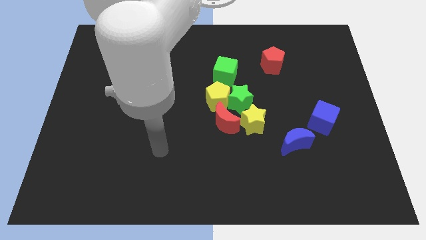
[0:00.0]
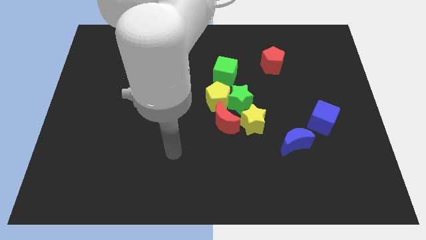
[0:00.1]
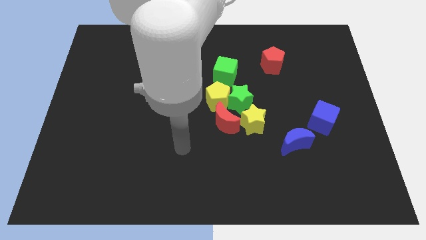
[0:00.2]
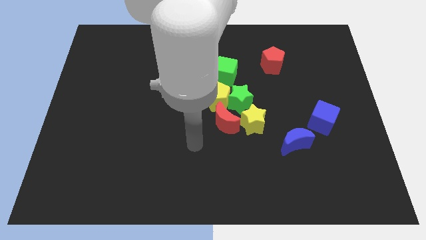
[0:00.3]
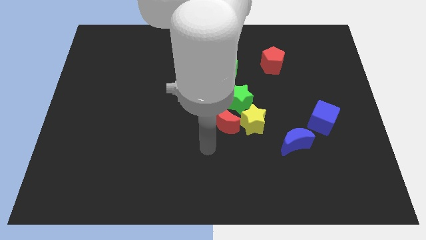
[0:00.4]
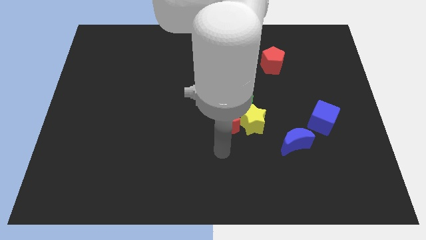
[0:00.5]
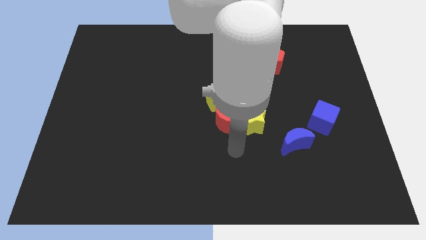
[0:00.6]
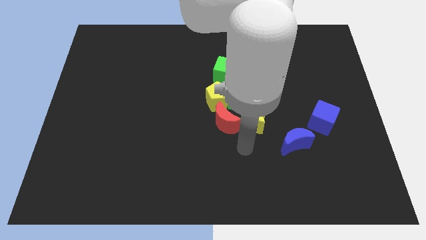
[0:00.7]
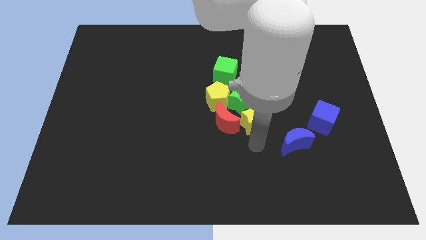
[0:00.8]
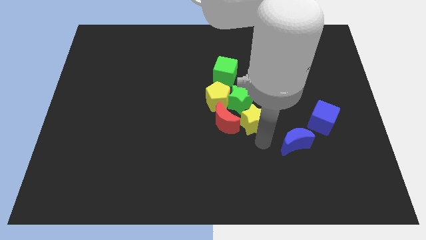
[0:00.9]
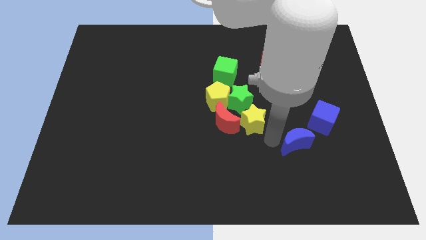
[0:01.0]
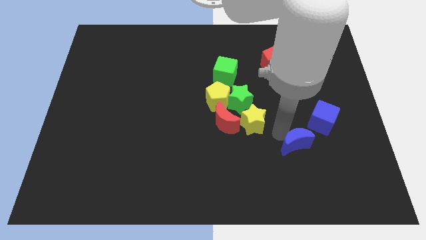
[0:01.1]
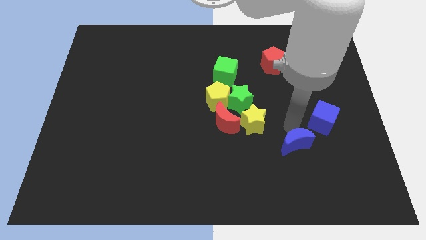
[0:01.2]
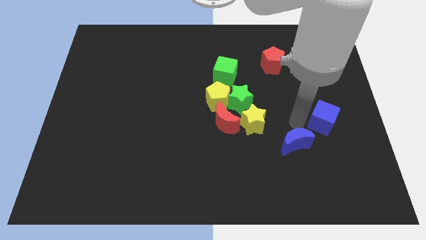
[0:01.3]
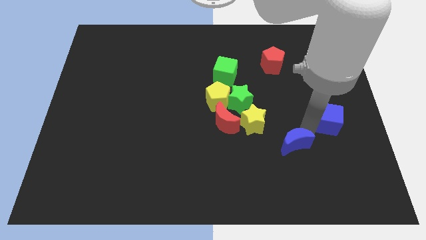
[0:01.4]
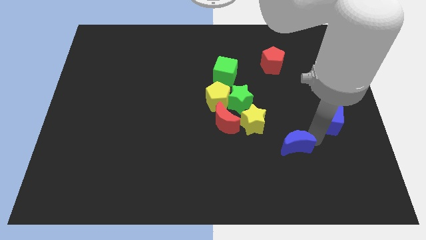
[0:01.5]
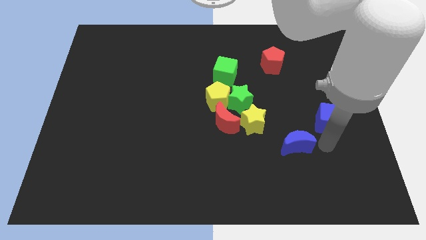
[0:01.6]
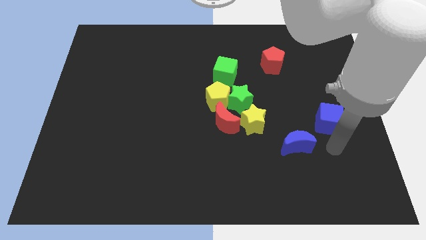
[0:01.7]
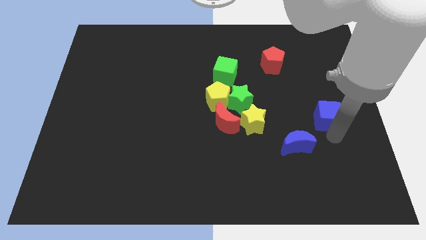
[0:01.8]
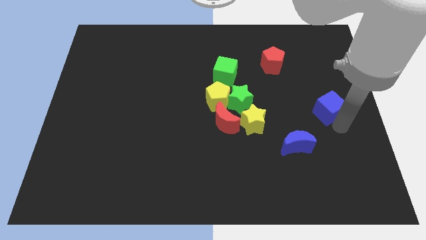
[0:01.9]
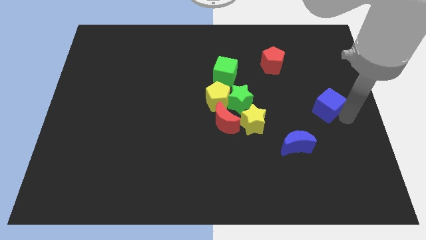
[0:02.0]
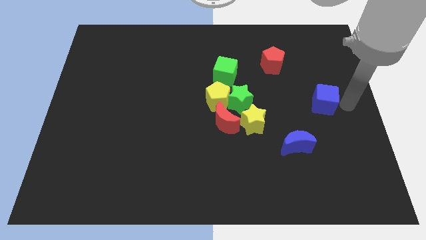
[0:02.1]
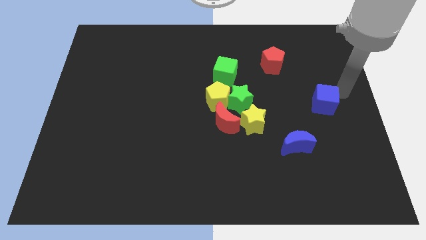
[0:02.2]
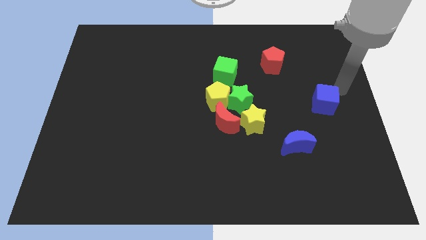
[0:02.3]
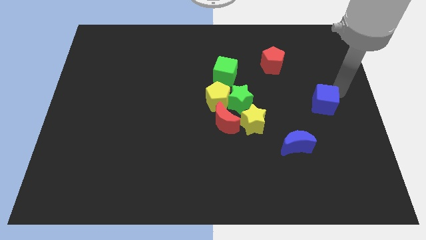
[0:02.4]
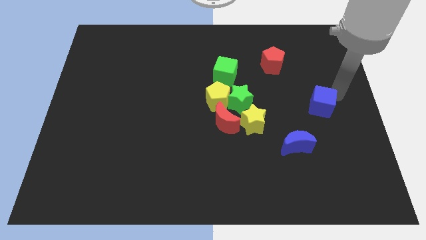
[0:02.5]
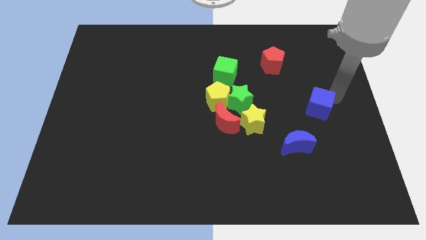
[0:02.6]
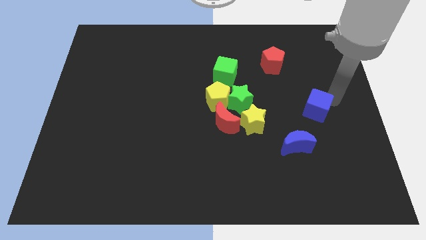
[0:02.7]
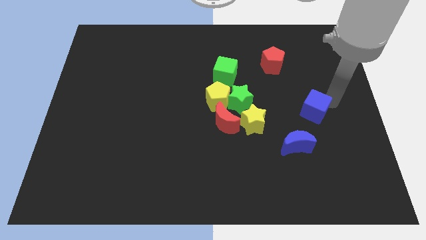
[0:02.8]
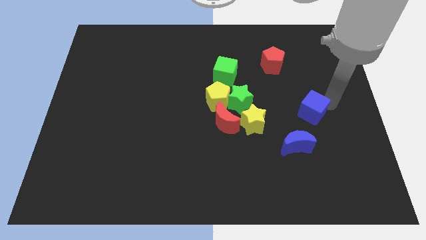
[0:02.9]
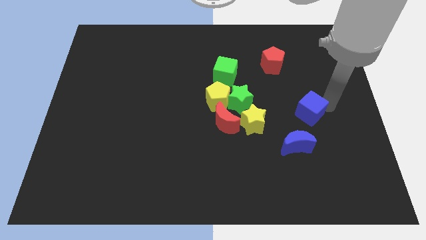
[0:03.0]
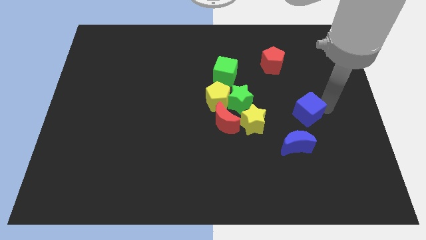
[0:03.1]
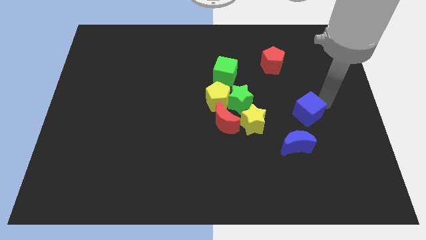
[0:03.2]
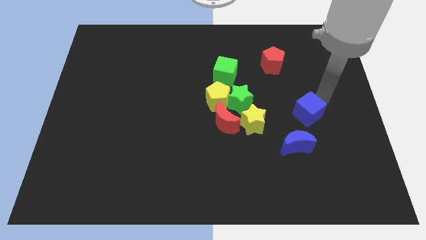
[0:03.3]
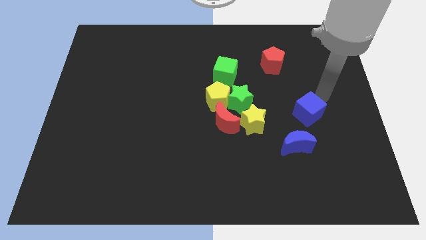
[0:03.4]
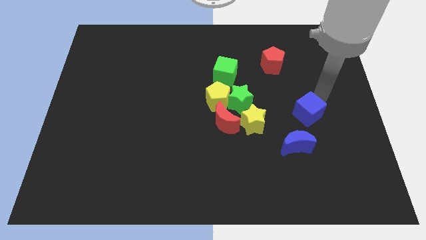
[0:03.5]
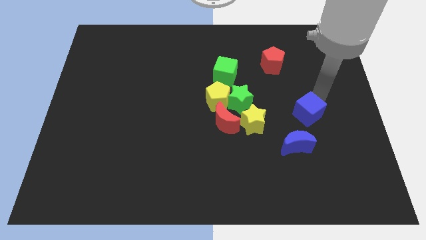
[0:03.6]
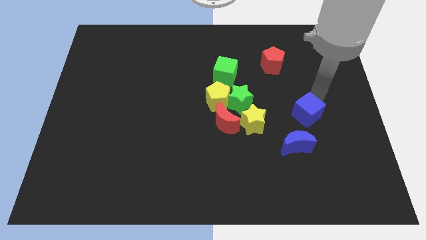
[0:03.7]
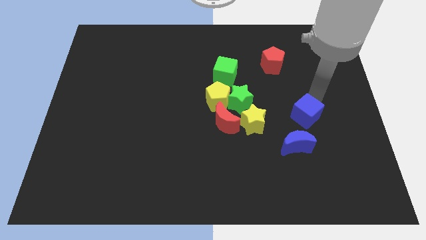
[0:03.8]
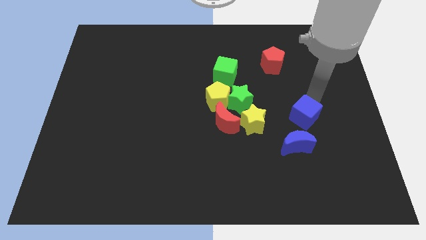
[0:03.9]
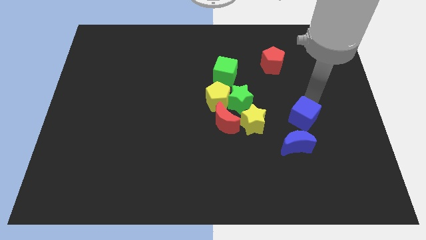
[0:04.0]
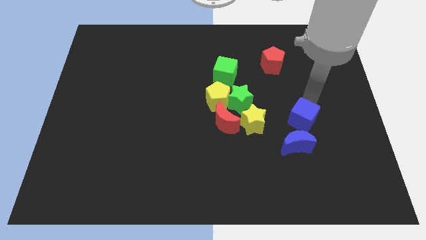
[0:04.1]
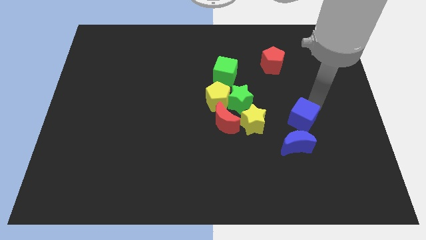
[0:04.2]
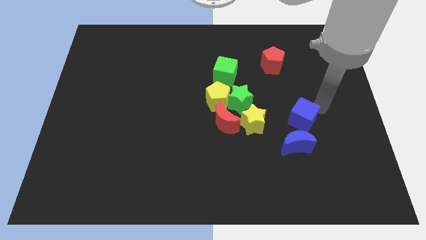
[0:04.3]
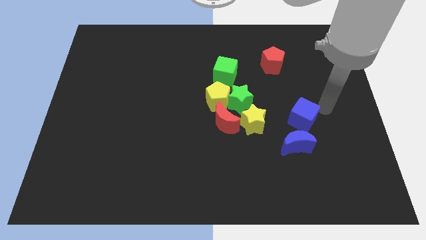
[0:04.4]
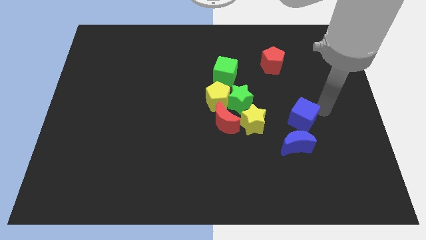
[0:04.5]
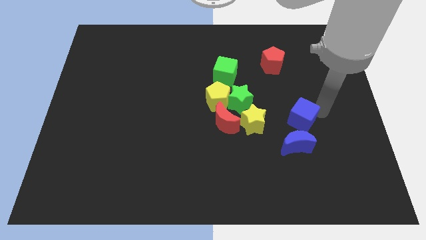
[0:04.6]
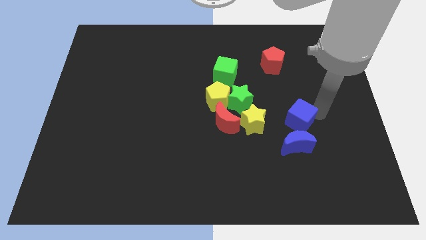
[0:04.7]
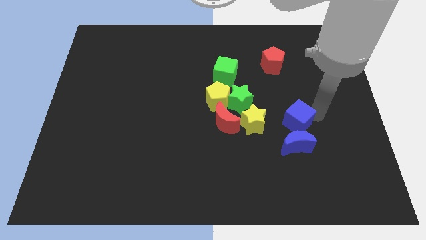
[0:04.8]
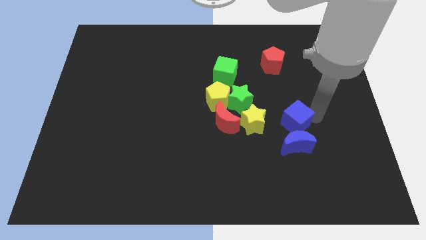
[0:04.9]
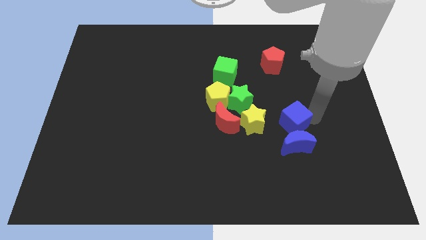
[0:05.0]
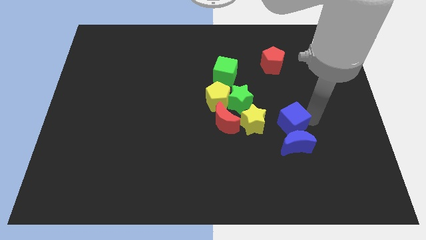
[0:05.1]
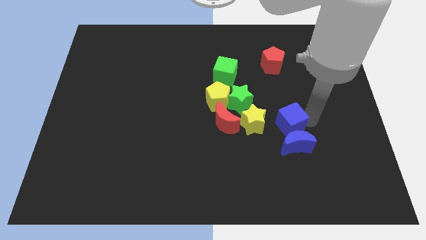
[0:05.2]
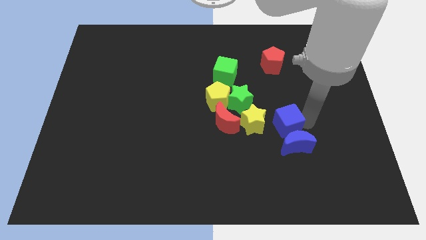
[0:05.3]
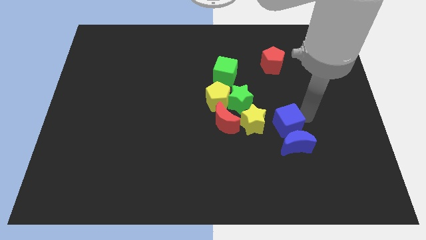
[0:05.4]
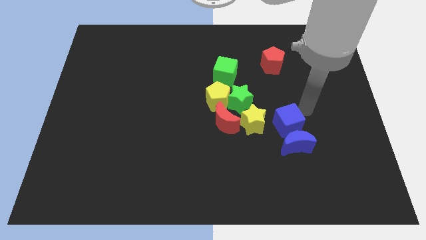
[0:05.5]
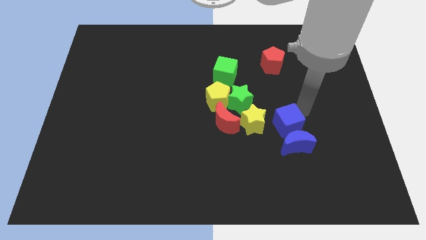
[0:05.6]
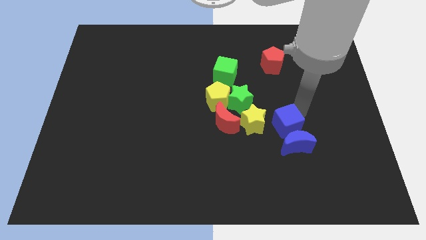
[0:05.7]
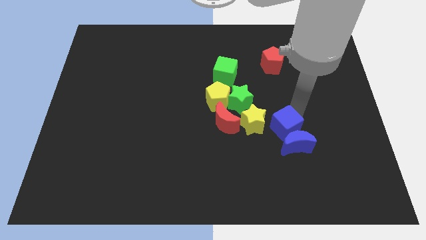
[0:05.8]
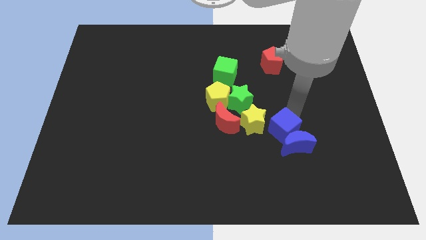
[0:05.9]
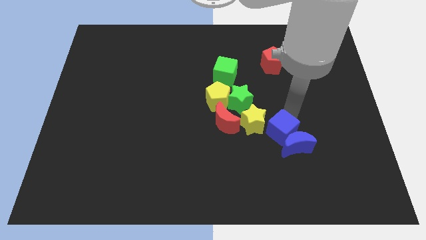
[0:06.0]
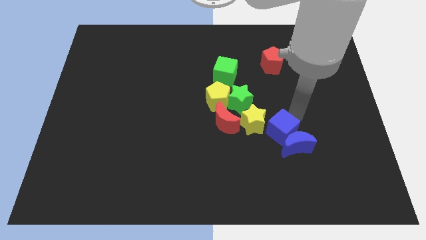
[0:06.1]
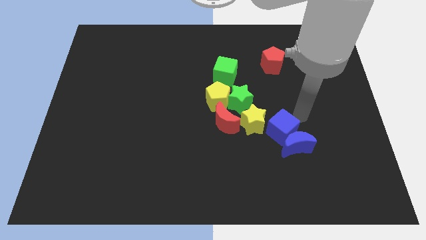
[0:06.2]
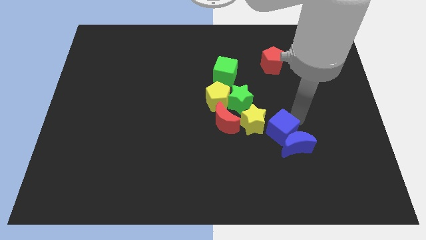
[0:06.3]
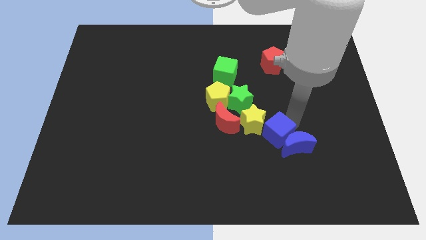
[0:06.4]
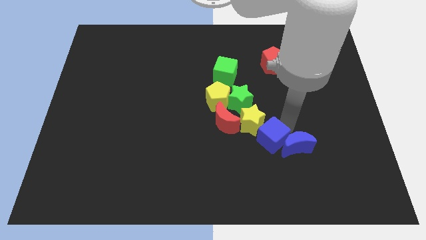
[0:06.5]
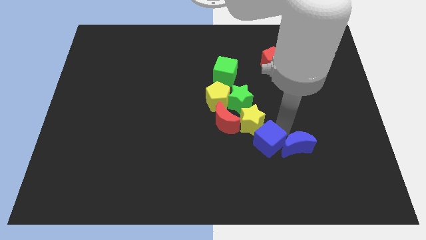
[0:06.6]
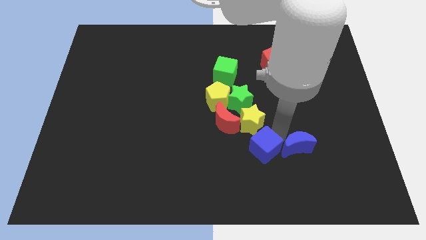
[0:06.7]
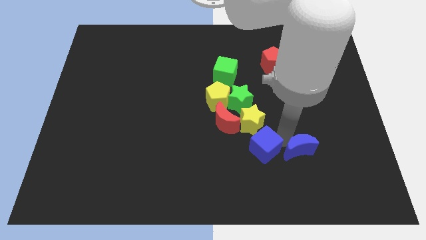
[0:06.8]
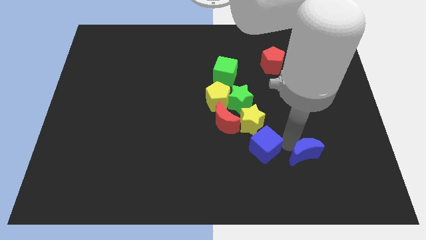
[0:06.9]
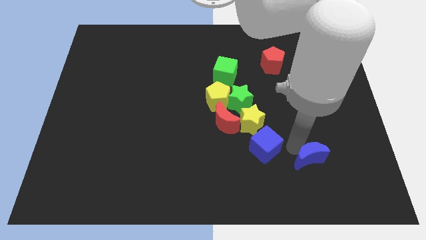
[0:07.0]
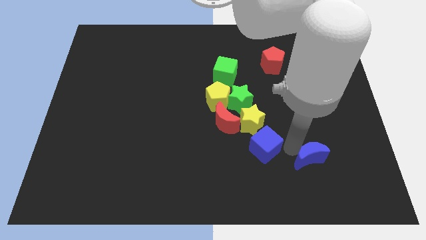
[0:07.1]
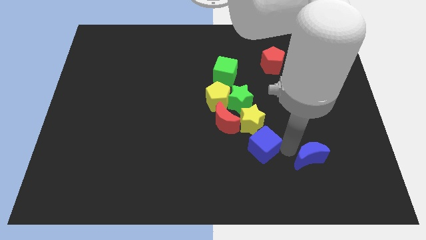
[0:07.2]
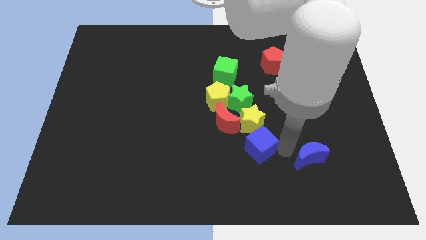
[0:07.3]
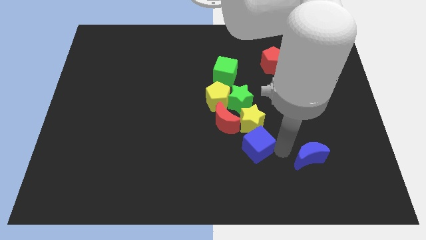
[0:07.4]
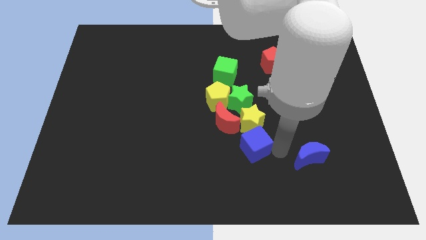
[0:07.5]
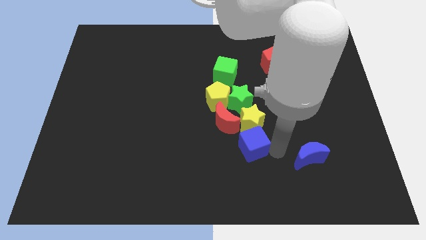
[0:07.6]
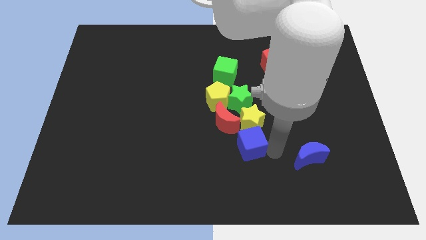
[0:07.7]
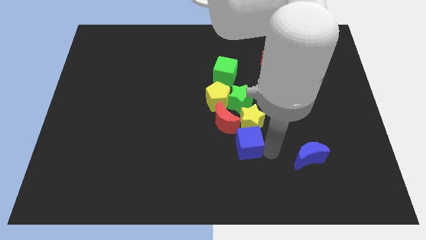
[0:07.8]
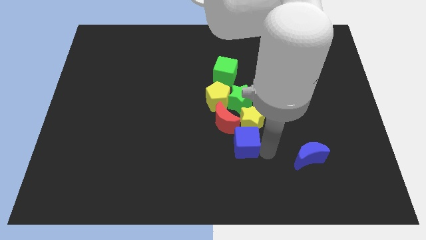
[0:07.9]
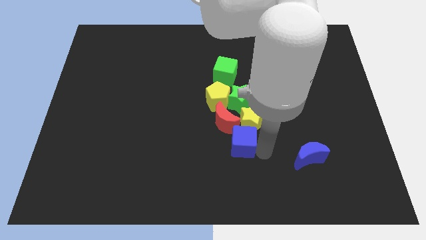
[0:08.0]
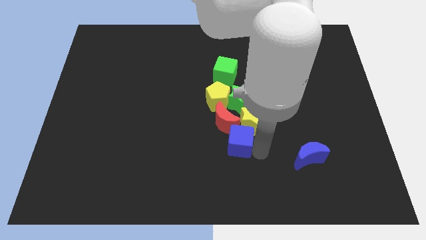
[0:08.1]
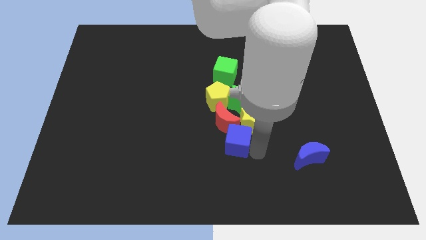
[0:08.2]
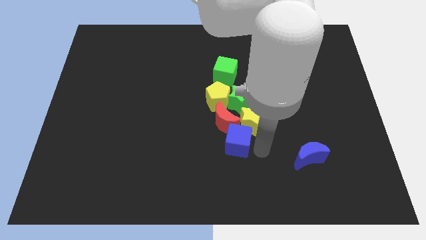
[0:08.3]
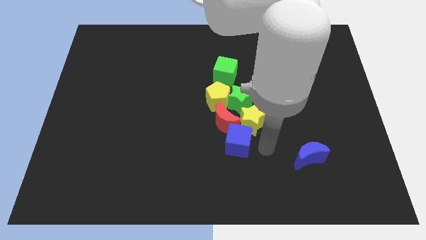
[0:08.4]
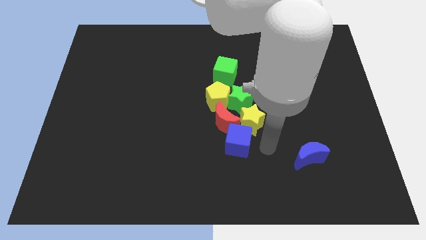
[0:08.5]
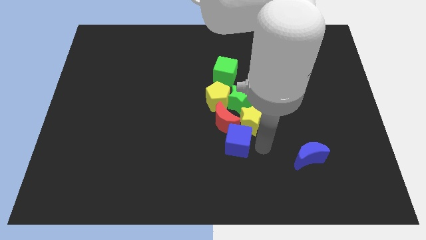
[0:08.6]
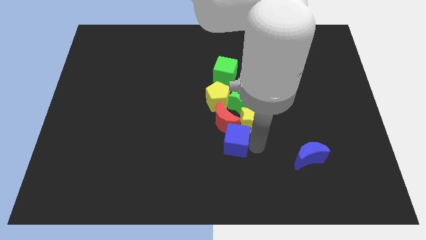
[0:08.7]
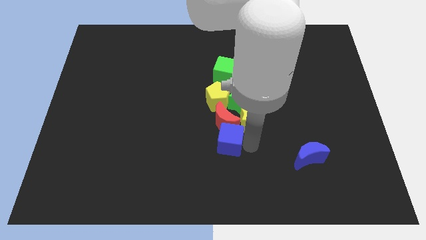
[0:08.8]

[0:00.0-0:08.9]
push the blue cube to the left
